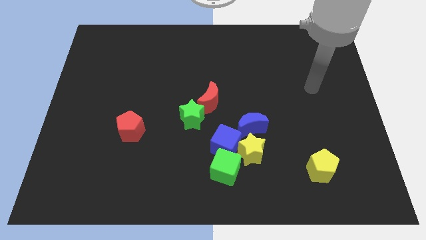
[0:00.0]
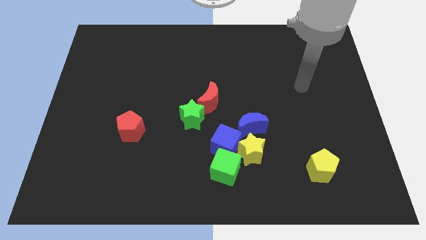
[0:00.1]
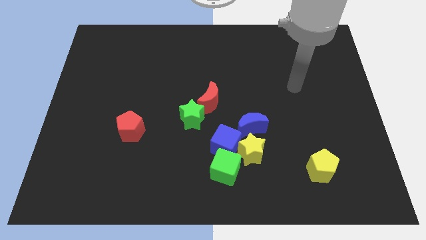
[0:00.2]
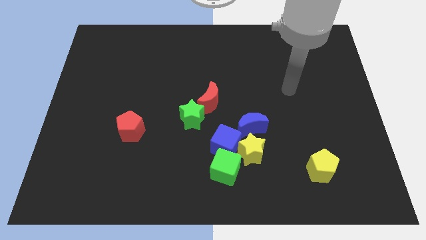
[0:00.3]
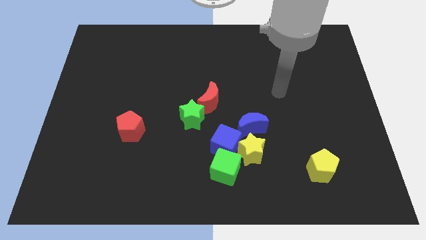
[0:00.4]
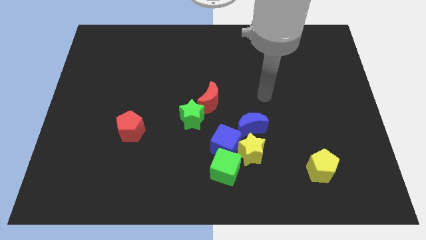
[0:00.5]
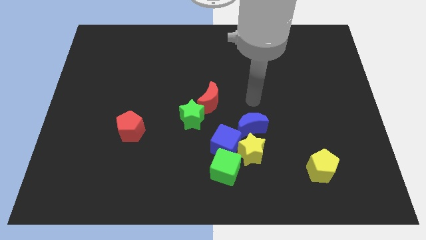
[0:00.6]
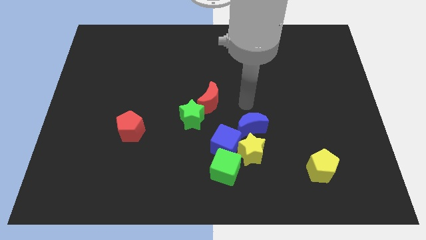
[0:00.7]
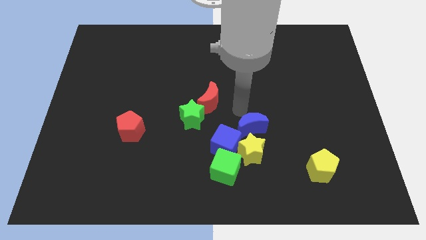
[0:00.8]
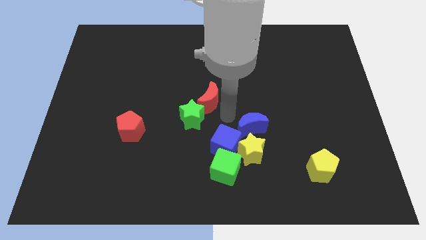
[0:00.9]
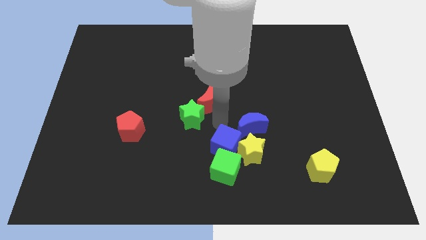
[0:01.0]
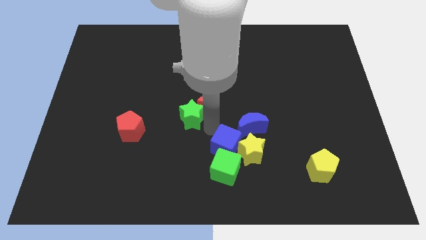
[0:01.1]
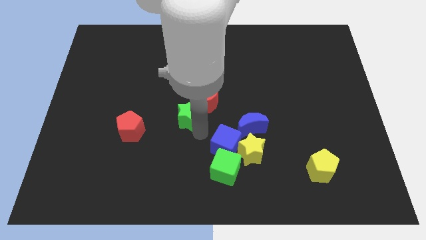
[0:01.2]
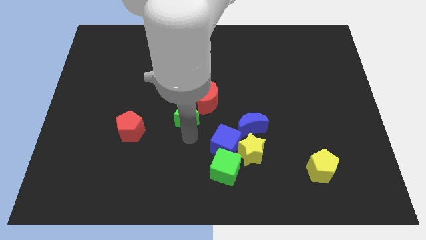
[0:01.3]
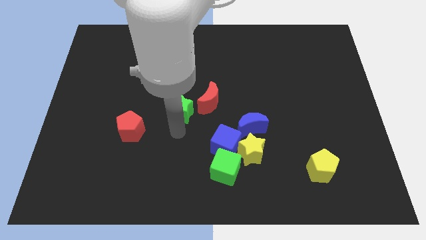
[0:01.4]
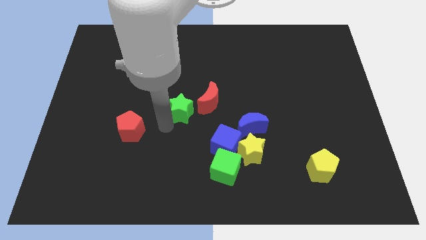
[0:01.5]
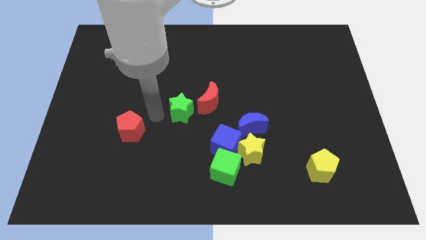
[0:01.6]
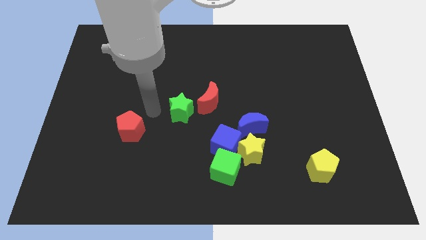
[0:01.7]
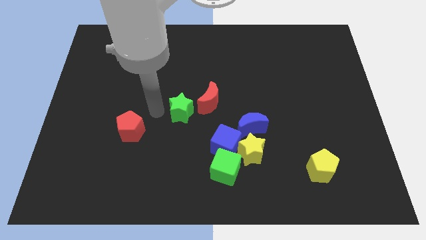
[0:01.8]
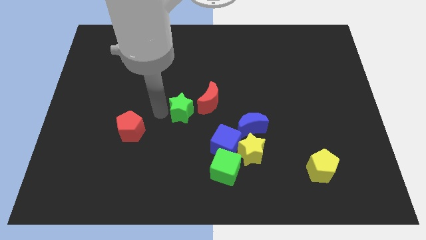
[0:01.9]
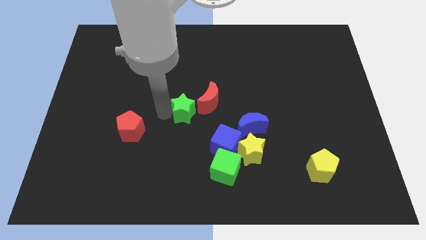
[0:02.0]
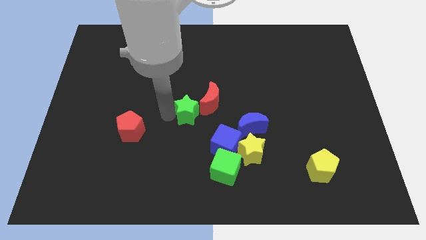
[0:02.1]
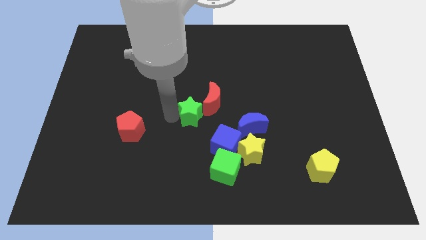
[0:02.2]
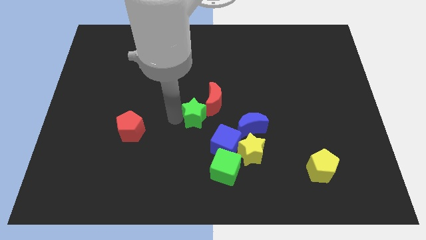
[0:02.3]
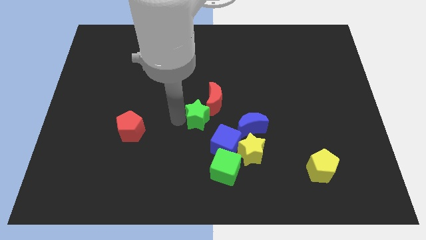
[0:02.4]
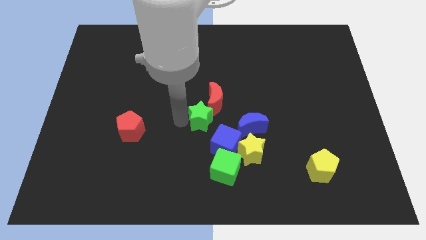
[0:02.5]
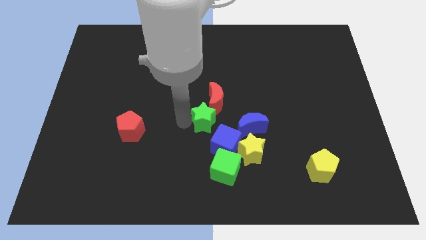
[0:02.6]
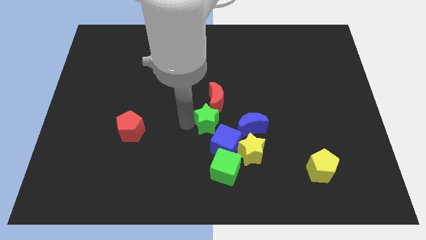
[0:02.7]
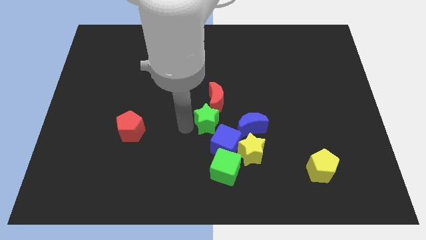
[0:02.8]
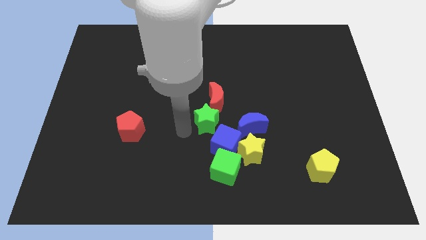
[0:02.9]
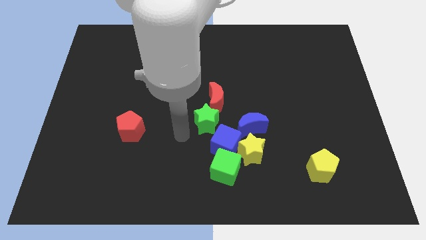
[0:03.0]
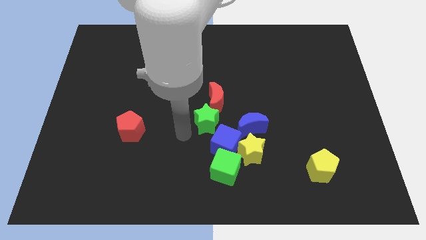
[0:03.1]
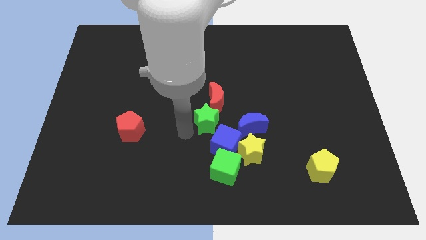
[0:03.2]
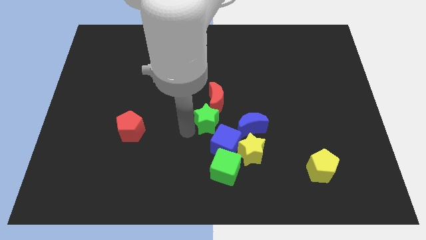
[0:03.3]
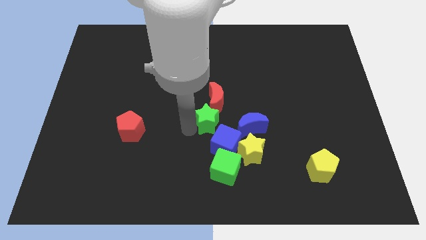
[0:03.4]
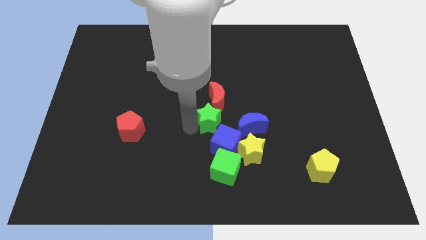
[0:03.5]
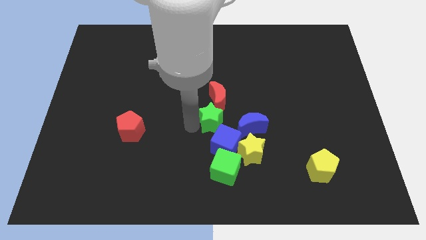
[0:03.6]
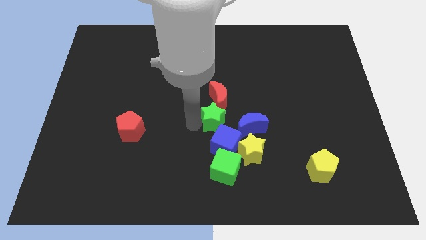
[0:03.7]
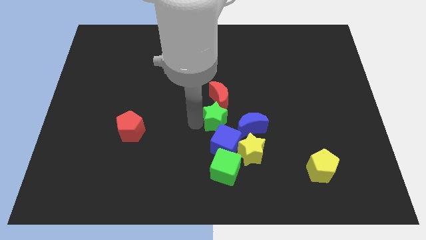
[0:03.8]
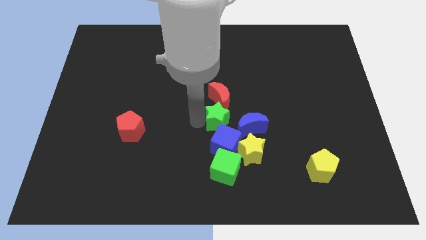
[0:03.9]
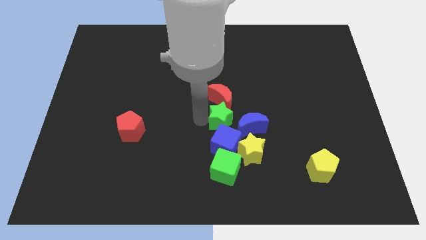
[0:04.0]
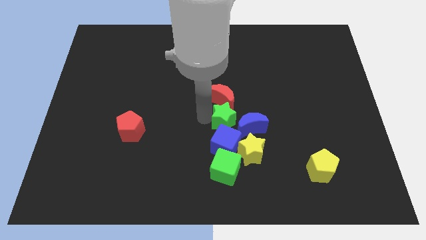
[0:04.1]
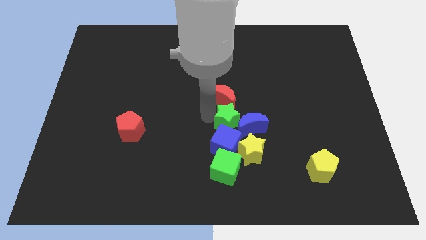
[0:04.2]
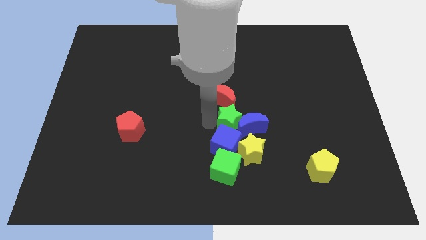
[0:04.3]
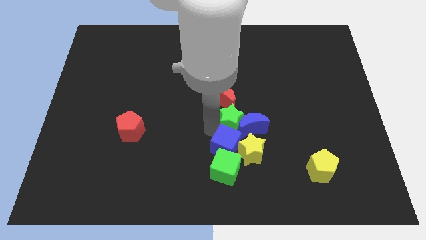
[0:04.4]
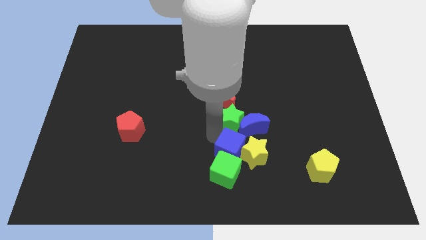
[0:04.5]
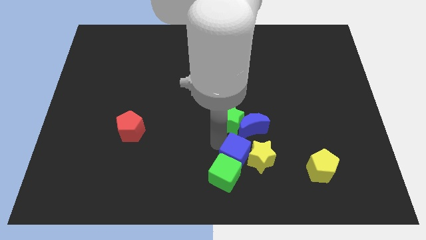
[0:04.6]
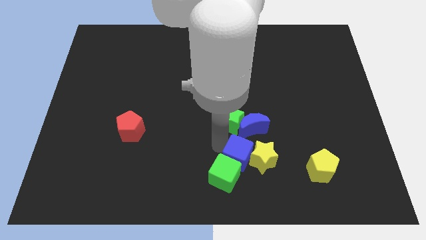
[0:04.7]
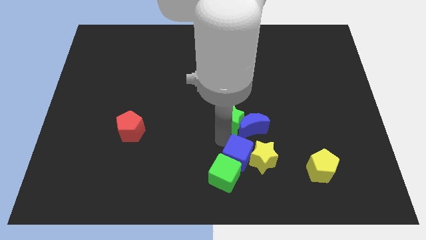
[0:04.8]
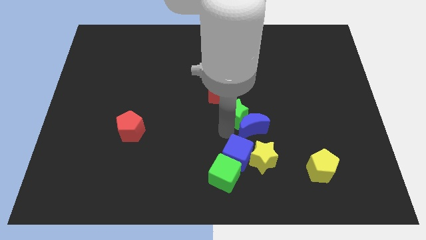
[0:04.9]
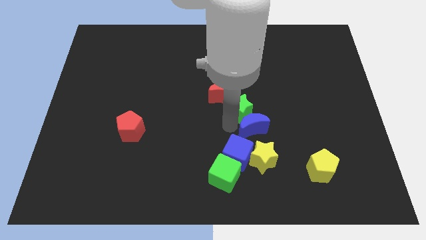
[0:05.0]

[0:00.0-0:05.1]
slightly push the green star diagonally up and to the right

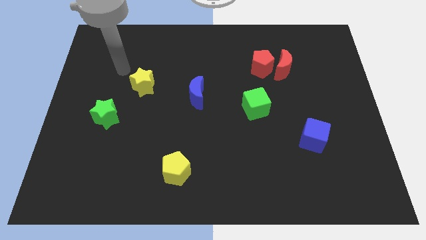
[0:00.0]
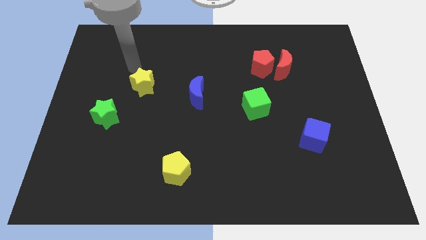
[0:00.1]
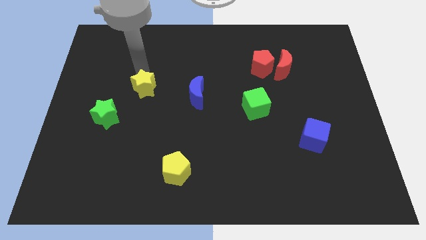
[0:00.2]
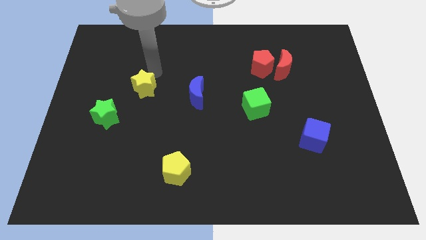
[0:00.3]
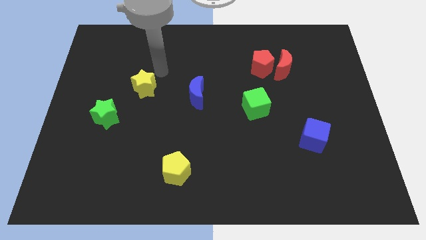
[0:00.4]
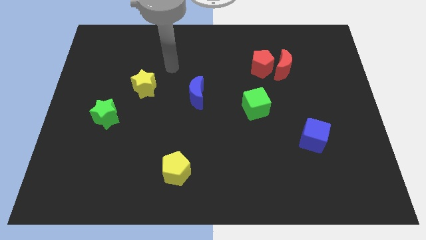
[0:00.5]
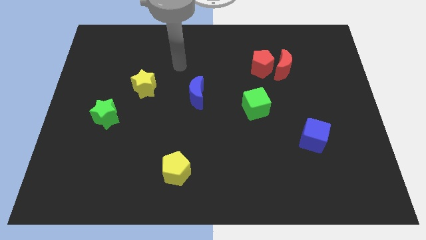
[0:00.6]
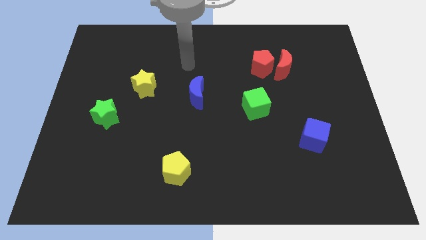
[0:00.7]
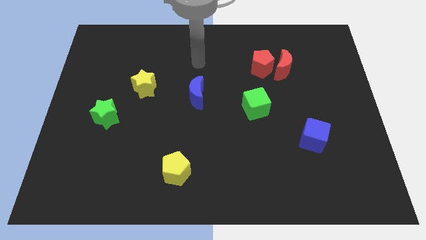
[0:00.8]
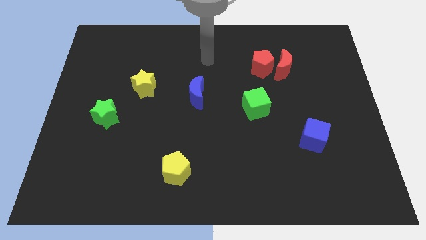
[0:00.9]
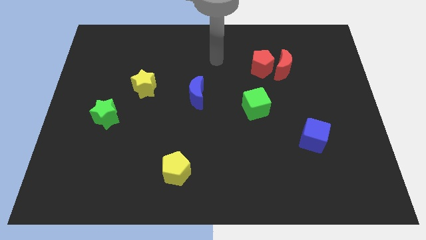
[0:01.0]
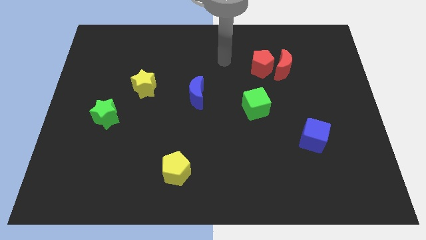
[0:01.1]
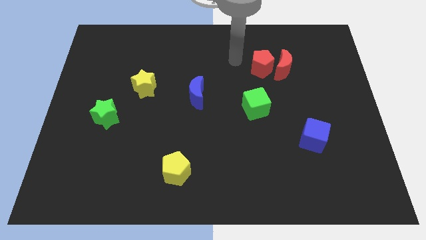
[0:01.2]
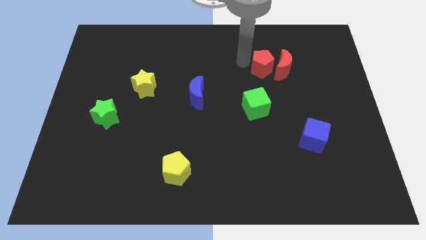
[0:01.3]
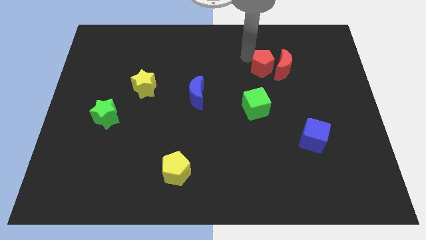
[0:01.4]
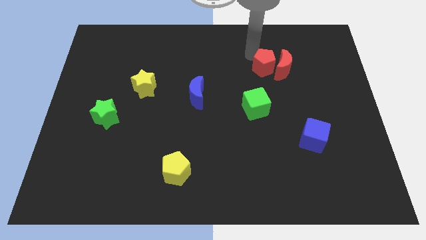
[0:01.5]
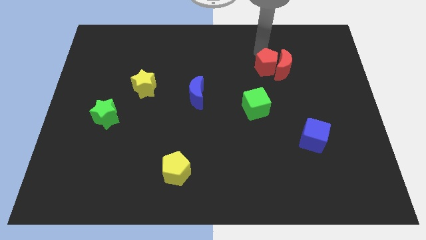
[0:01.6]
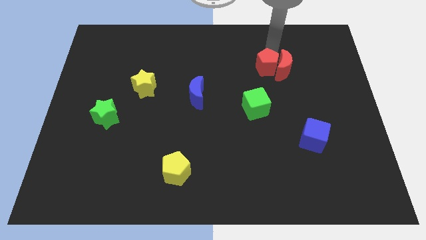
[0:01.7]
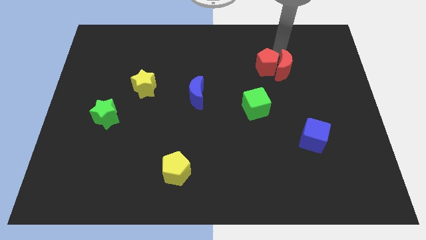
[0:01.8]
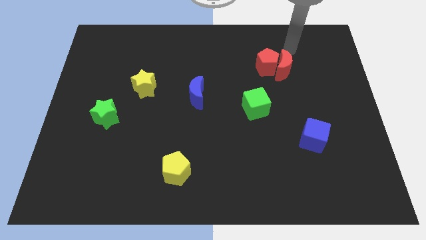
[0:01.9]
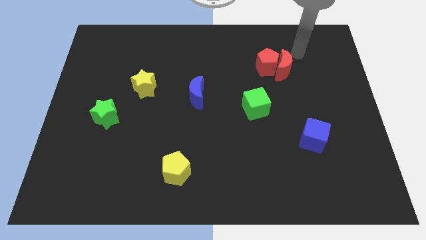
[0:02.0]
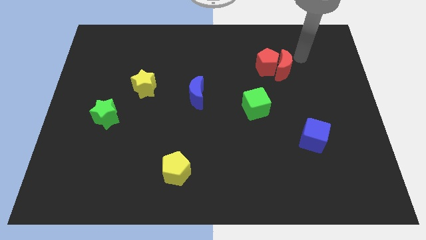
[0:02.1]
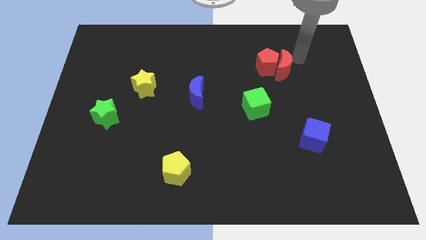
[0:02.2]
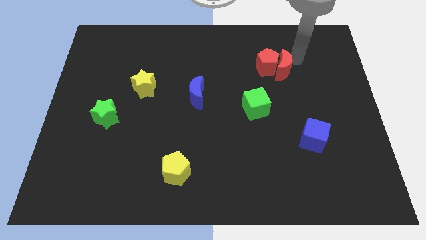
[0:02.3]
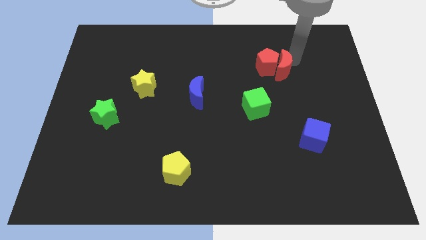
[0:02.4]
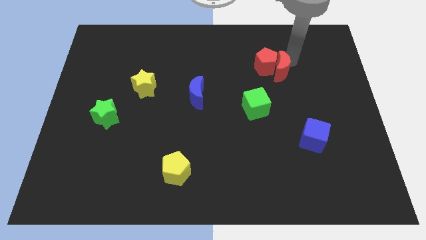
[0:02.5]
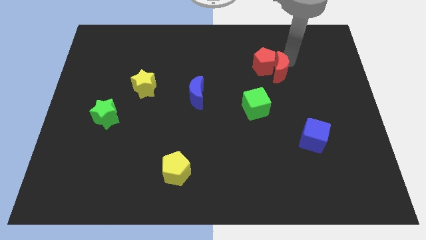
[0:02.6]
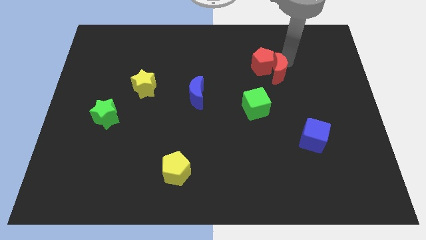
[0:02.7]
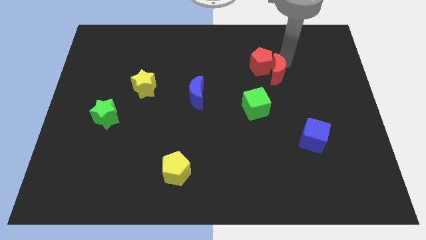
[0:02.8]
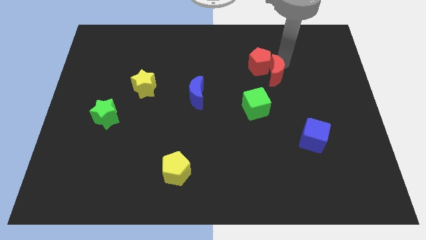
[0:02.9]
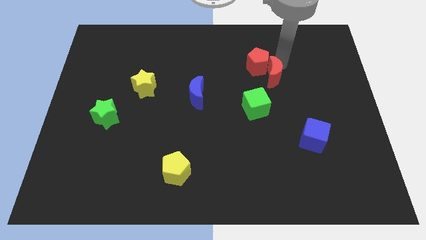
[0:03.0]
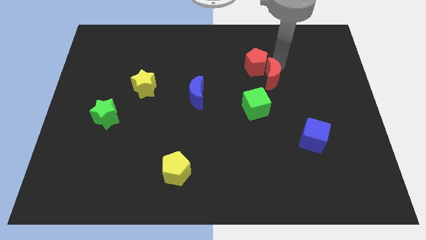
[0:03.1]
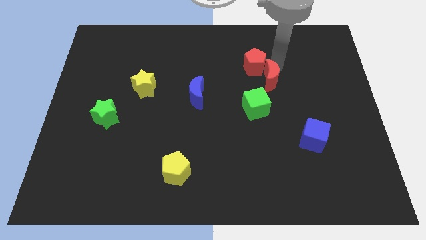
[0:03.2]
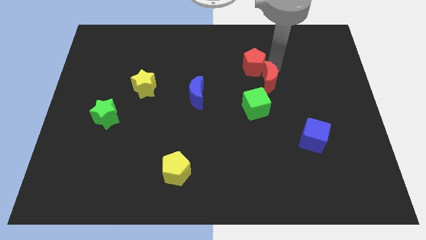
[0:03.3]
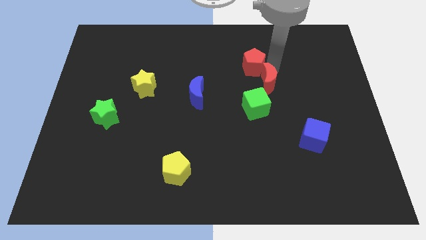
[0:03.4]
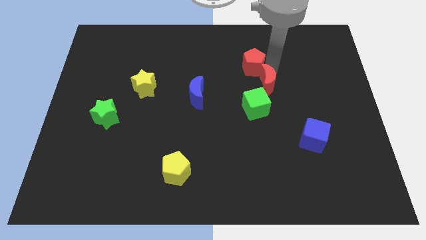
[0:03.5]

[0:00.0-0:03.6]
push the red moon a bit diagonally downwards and to the left
